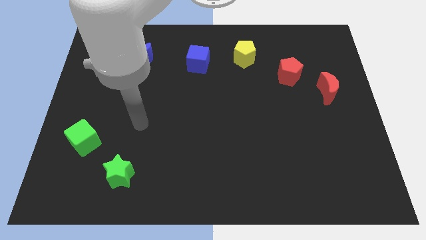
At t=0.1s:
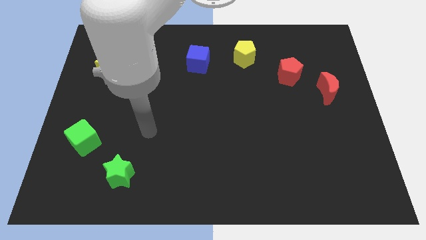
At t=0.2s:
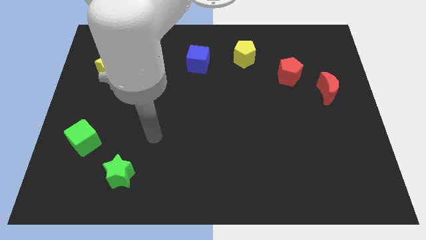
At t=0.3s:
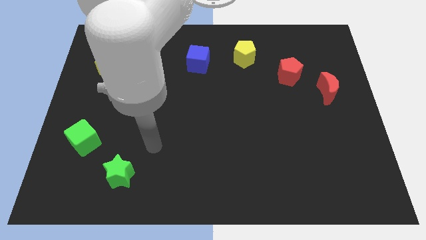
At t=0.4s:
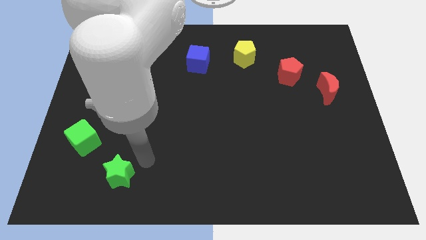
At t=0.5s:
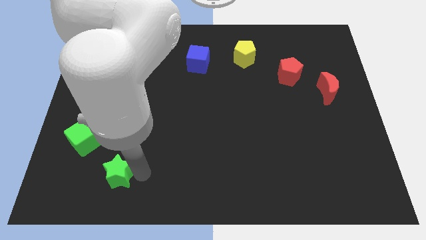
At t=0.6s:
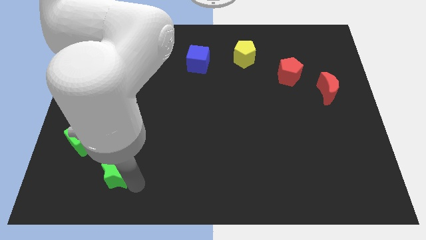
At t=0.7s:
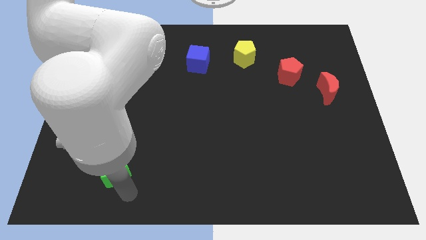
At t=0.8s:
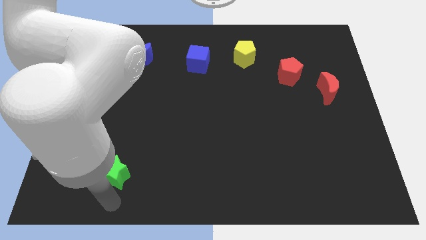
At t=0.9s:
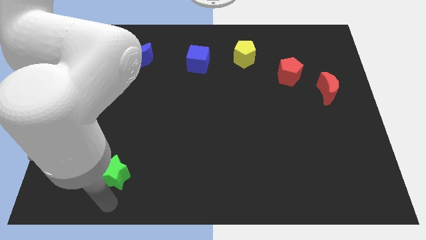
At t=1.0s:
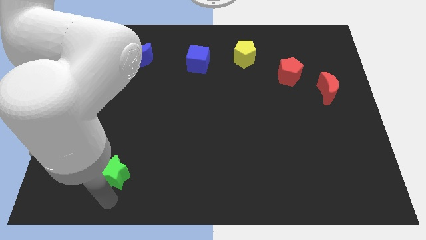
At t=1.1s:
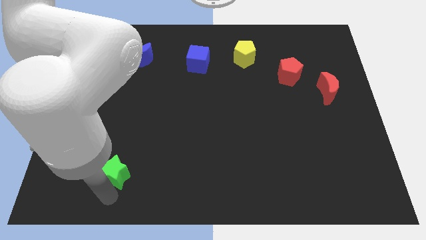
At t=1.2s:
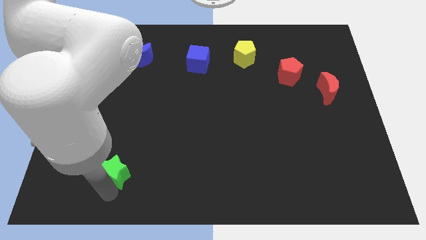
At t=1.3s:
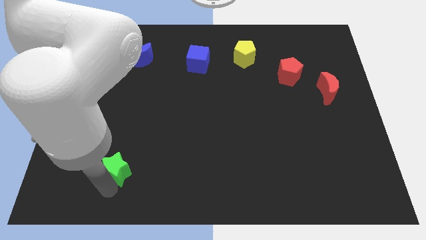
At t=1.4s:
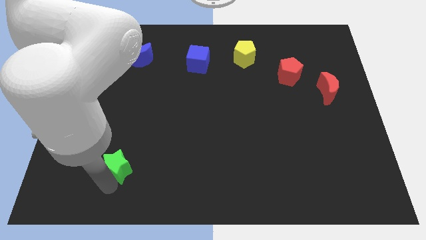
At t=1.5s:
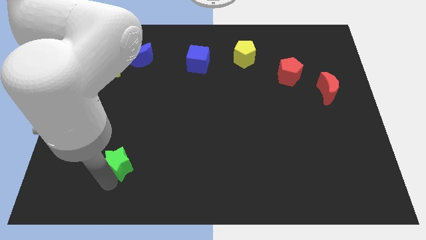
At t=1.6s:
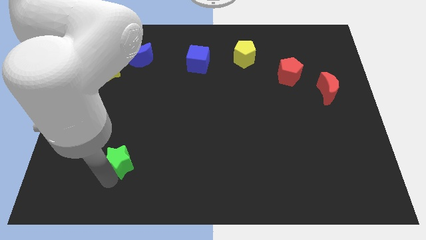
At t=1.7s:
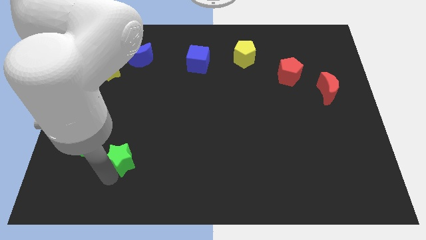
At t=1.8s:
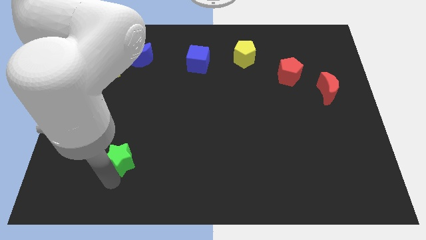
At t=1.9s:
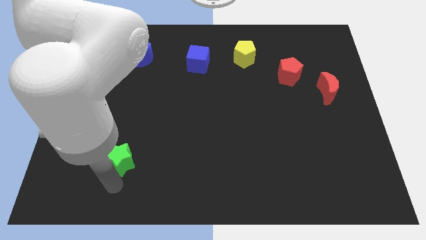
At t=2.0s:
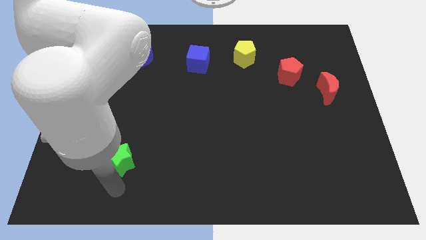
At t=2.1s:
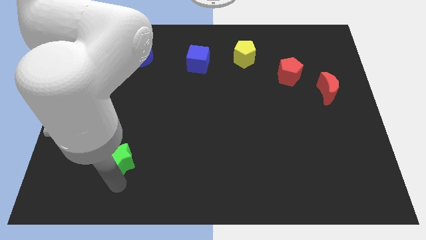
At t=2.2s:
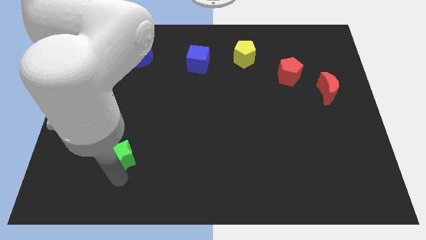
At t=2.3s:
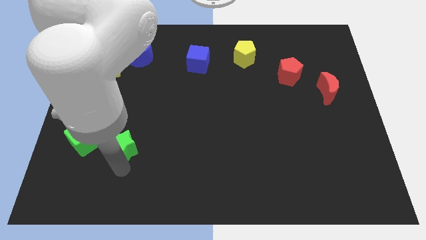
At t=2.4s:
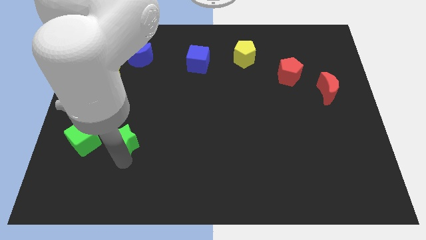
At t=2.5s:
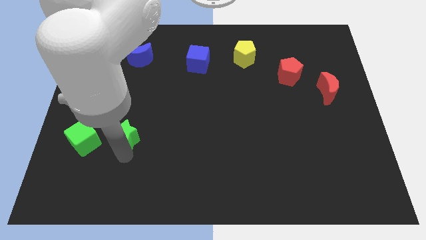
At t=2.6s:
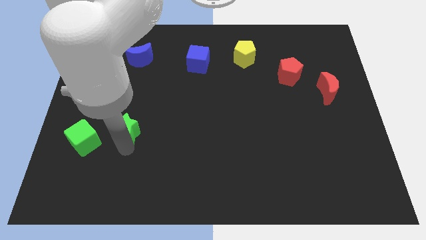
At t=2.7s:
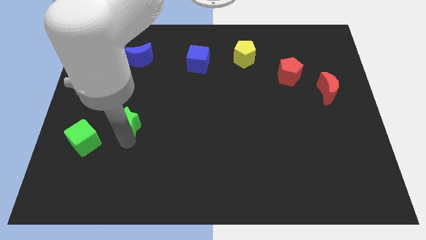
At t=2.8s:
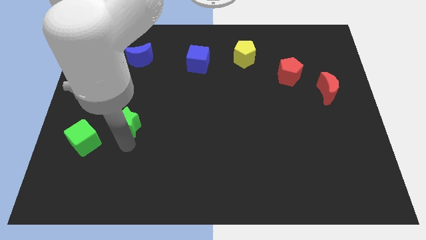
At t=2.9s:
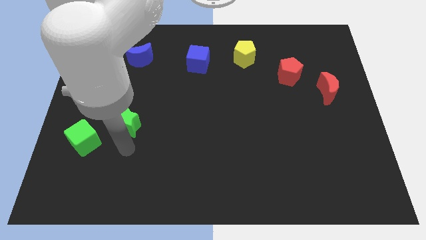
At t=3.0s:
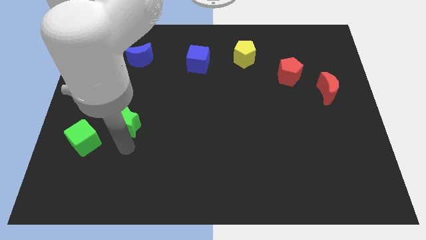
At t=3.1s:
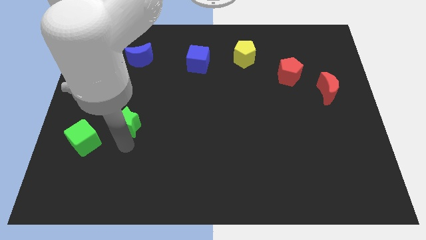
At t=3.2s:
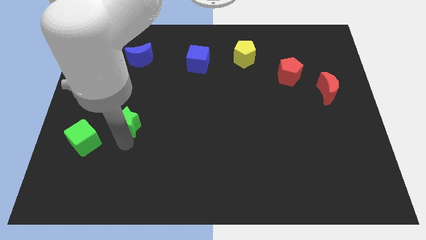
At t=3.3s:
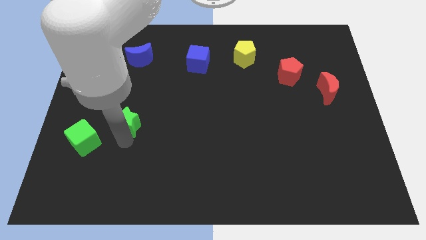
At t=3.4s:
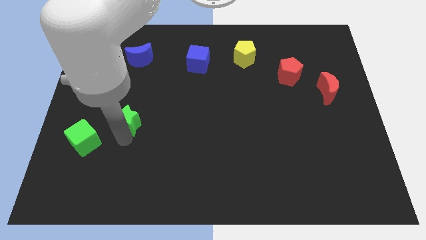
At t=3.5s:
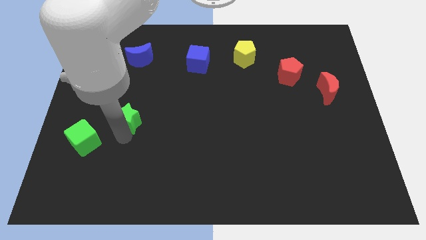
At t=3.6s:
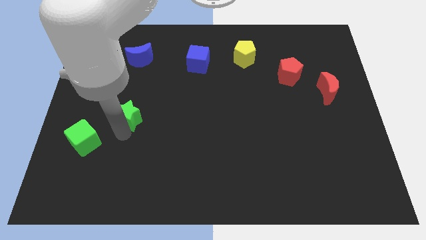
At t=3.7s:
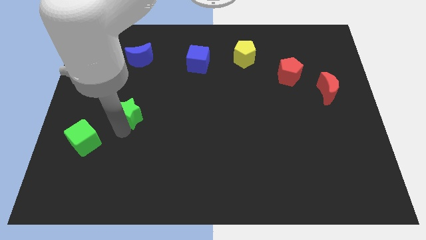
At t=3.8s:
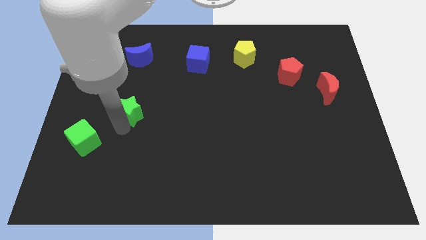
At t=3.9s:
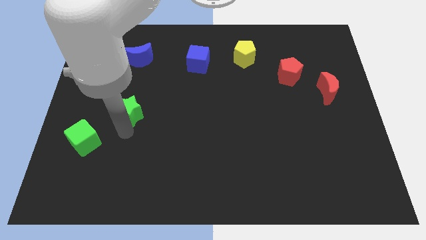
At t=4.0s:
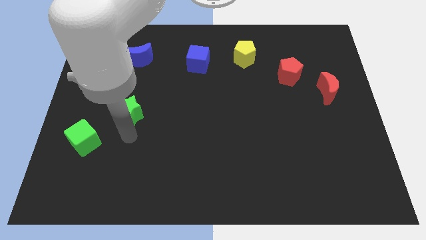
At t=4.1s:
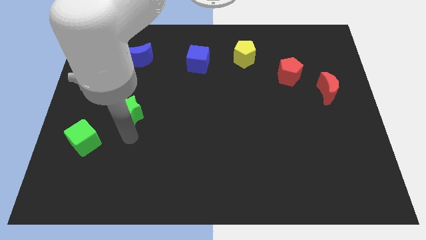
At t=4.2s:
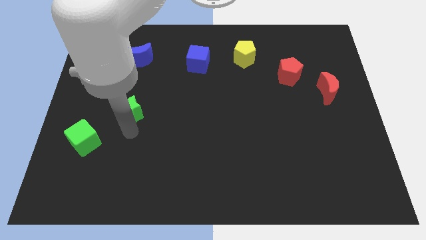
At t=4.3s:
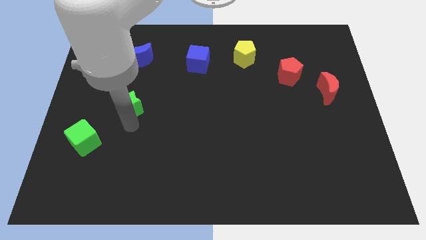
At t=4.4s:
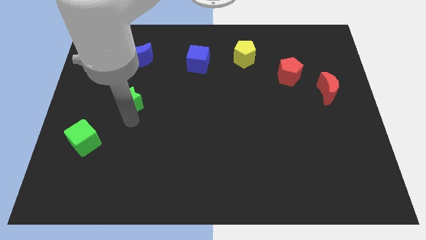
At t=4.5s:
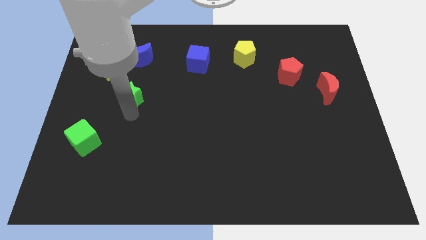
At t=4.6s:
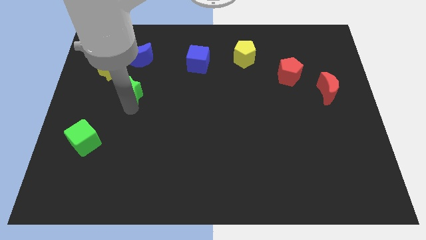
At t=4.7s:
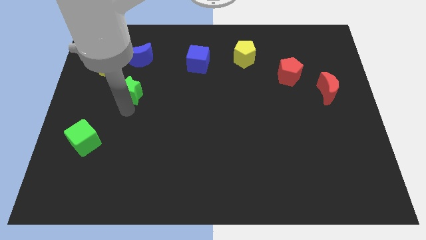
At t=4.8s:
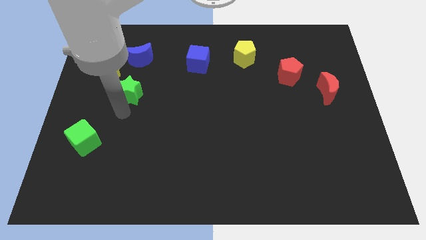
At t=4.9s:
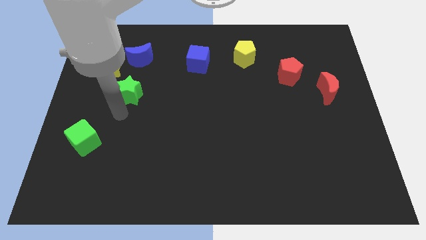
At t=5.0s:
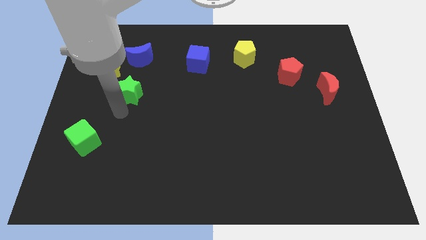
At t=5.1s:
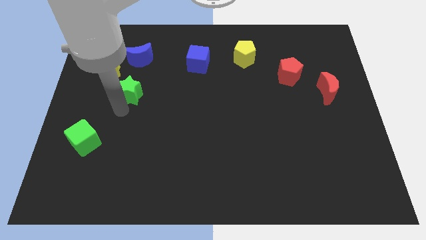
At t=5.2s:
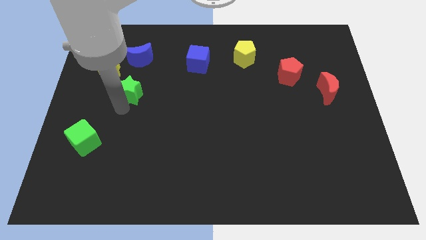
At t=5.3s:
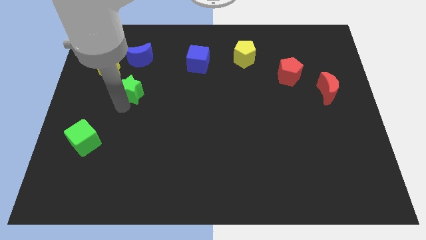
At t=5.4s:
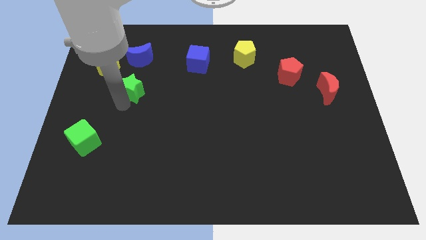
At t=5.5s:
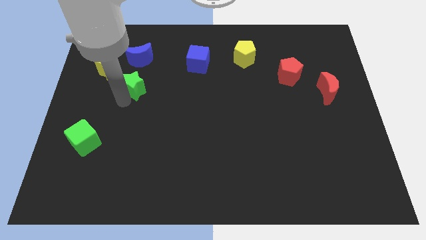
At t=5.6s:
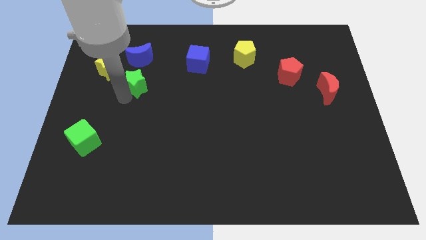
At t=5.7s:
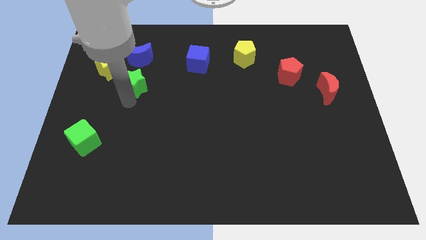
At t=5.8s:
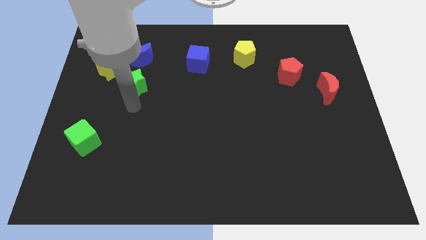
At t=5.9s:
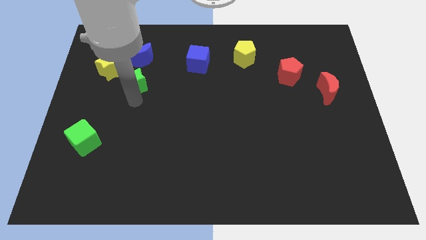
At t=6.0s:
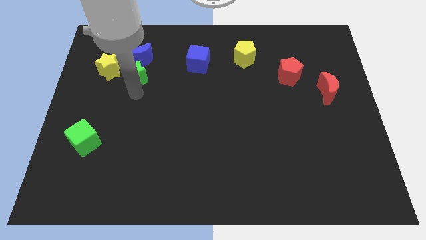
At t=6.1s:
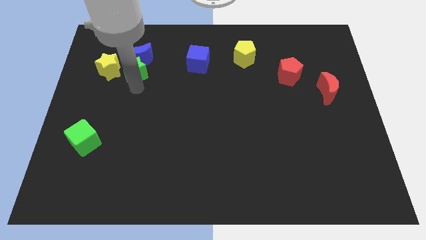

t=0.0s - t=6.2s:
put the green star towards the blue moon

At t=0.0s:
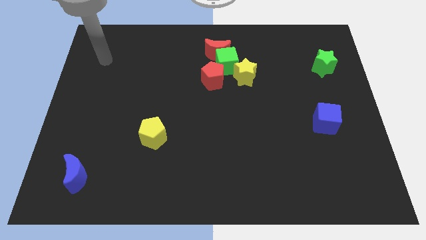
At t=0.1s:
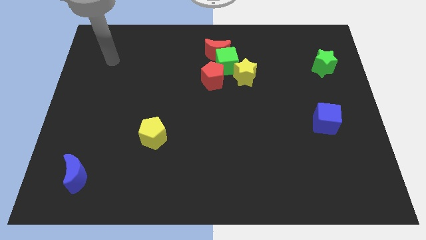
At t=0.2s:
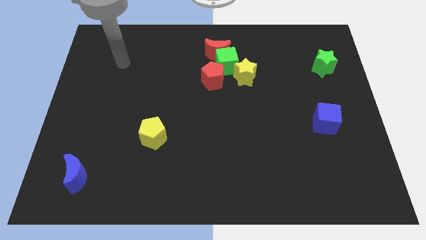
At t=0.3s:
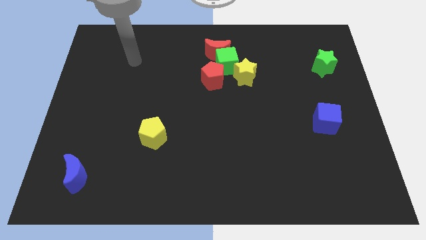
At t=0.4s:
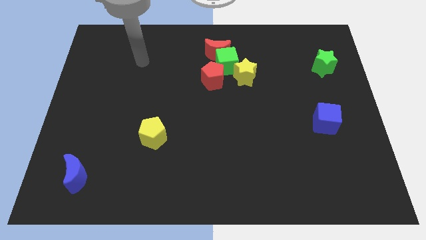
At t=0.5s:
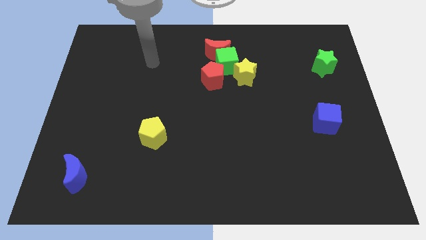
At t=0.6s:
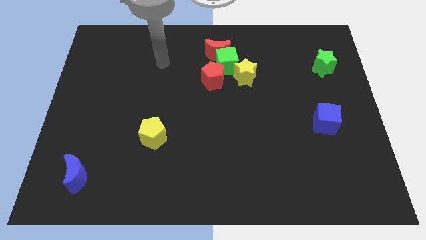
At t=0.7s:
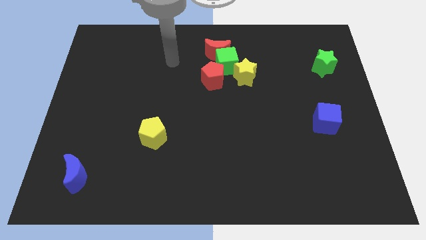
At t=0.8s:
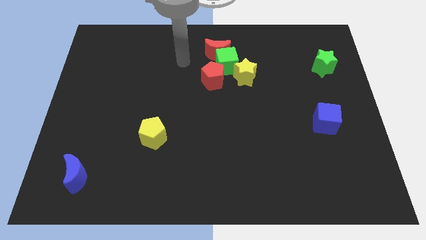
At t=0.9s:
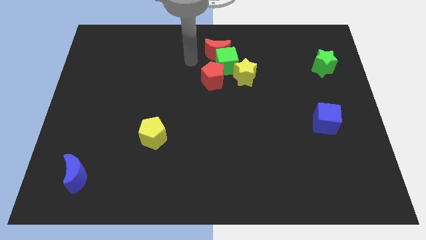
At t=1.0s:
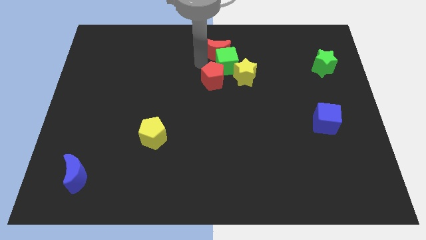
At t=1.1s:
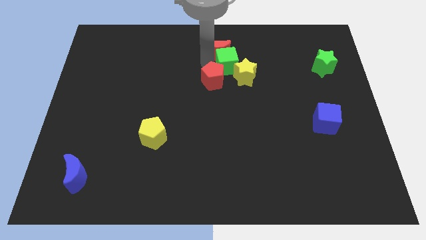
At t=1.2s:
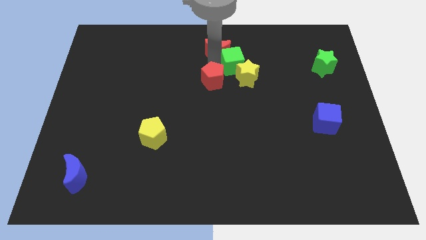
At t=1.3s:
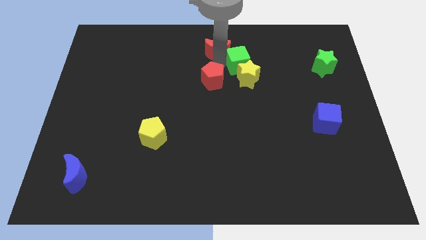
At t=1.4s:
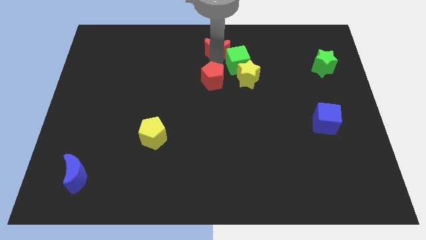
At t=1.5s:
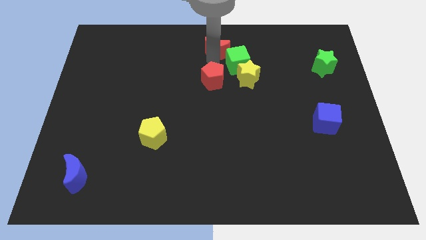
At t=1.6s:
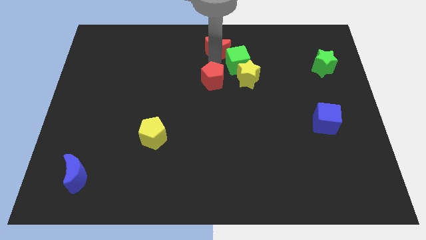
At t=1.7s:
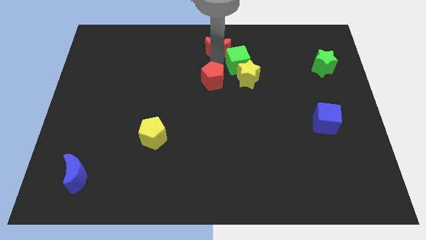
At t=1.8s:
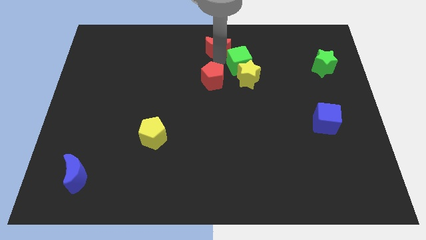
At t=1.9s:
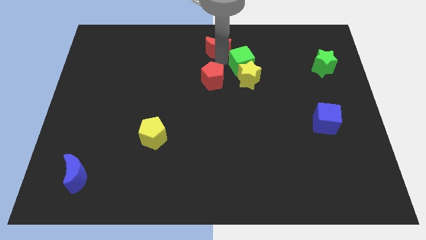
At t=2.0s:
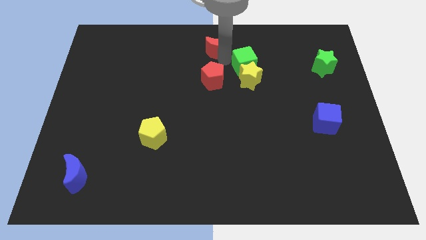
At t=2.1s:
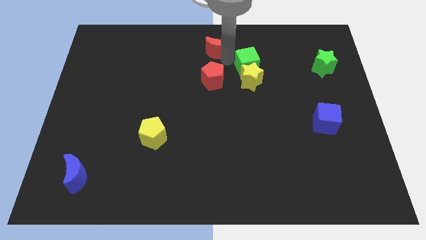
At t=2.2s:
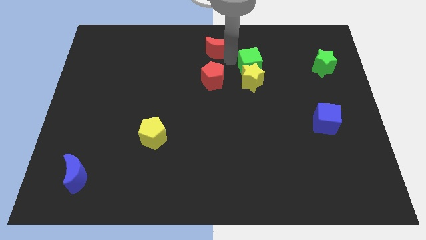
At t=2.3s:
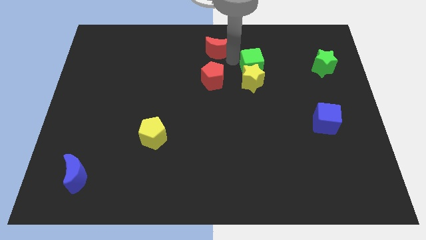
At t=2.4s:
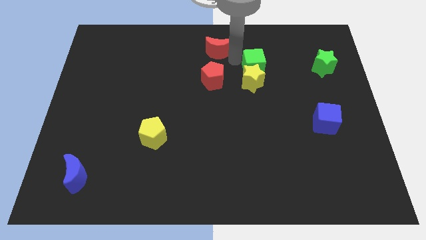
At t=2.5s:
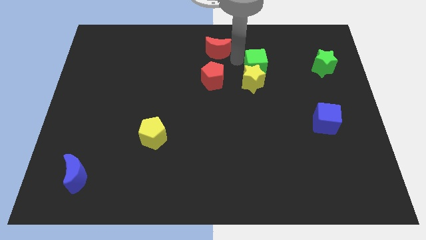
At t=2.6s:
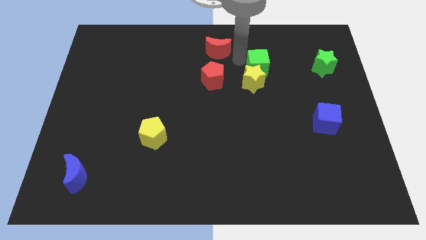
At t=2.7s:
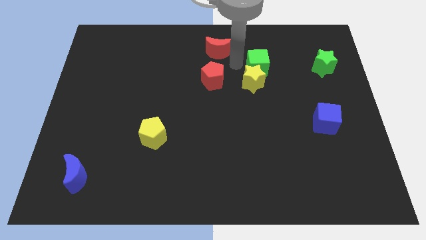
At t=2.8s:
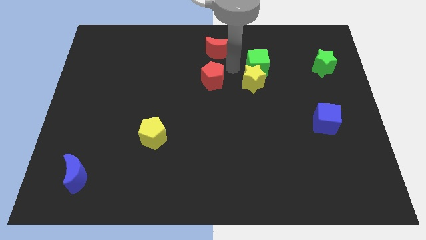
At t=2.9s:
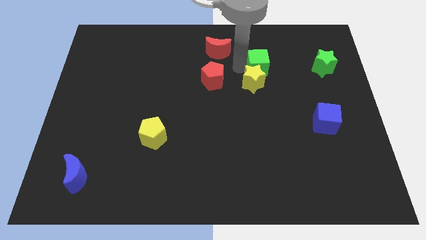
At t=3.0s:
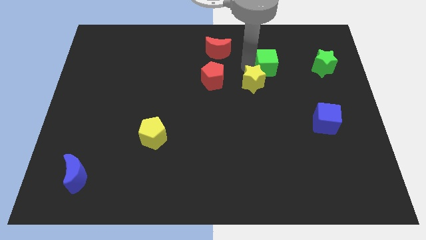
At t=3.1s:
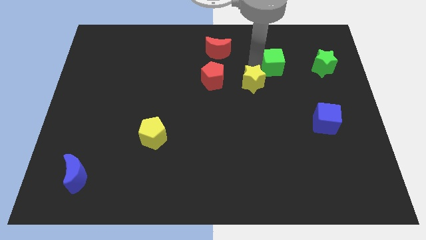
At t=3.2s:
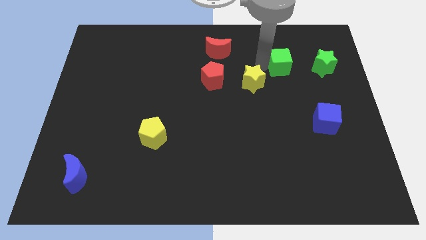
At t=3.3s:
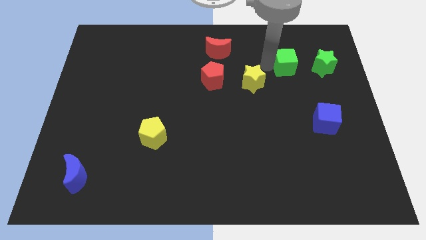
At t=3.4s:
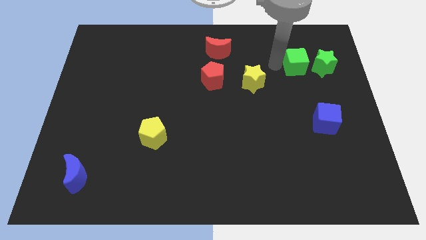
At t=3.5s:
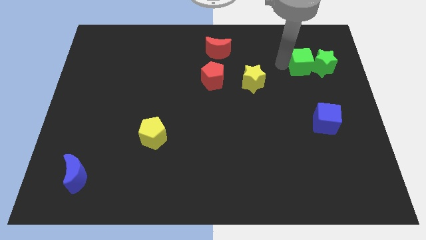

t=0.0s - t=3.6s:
move the green cube close to the green star
